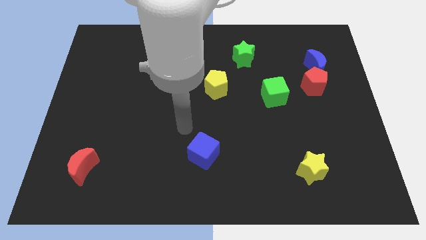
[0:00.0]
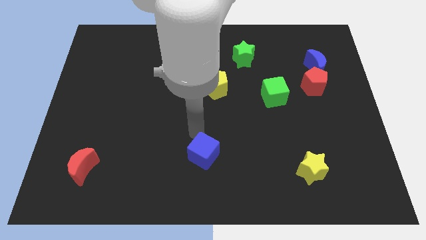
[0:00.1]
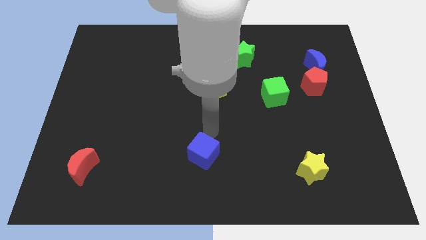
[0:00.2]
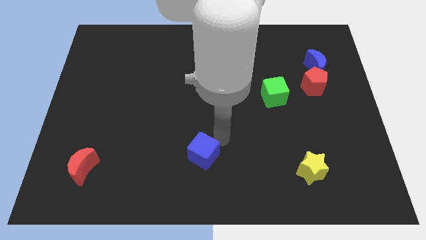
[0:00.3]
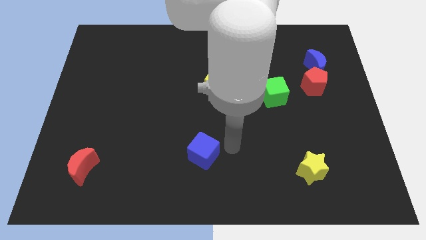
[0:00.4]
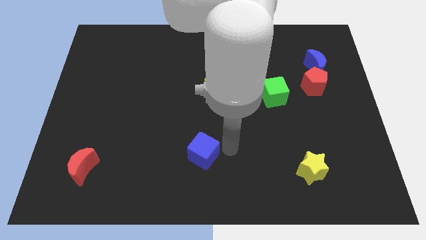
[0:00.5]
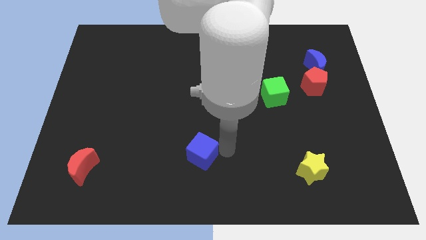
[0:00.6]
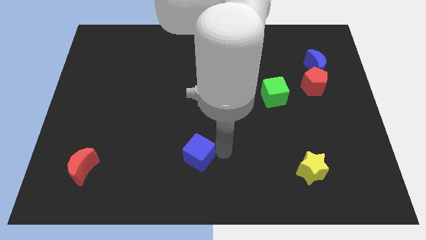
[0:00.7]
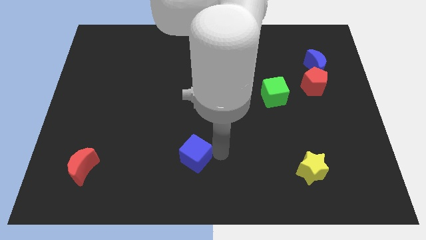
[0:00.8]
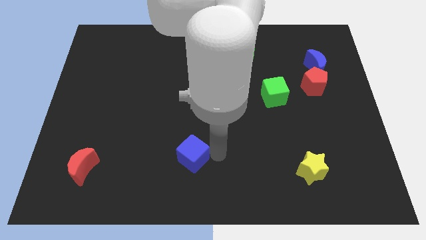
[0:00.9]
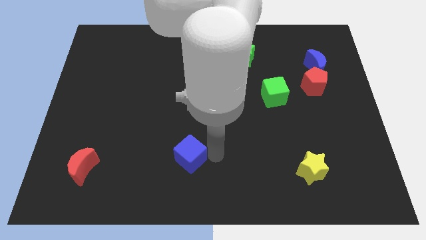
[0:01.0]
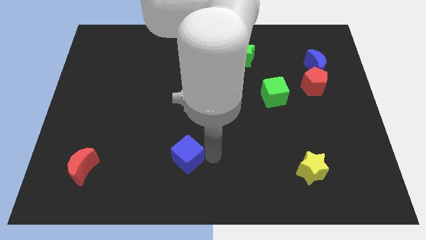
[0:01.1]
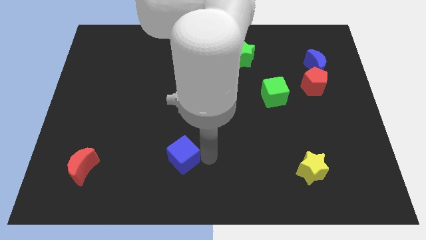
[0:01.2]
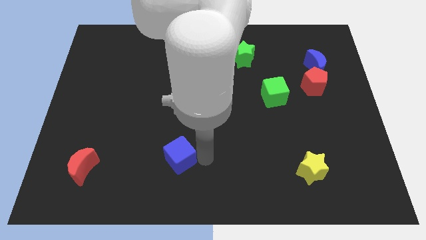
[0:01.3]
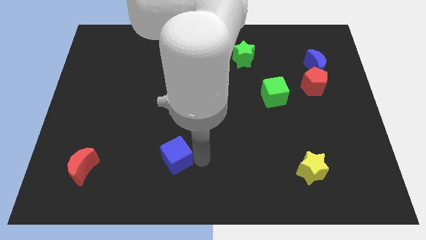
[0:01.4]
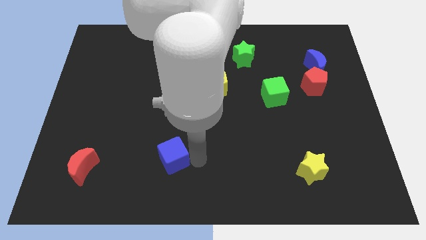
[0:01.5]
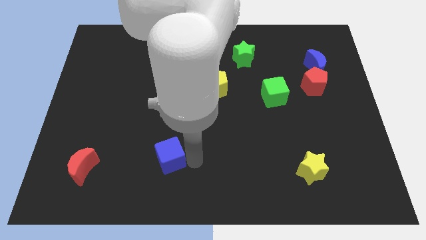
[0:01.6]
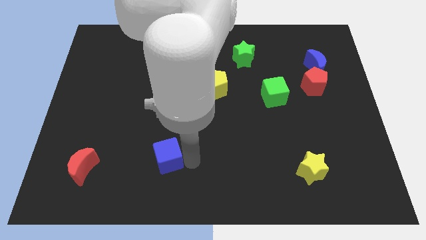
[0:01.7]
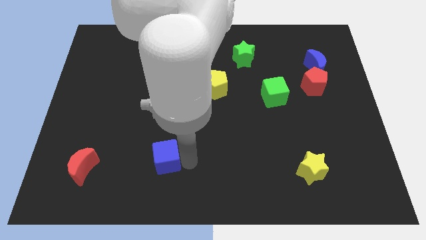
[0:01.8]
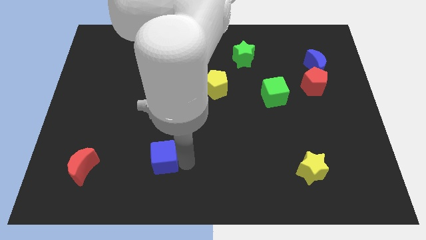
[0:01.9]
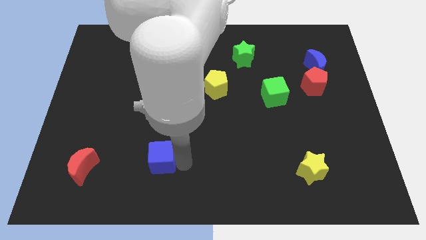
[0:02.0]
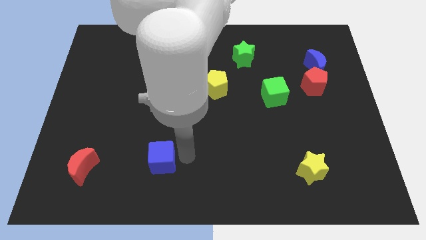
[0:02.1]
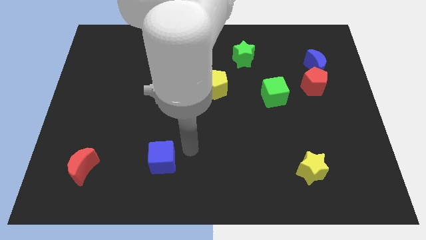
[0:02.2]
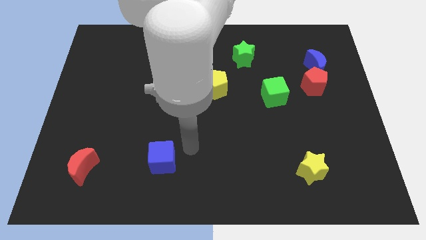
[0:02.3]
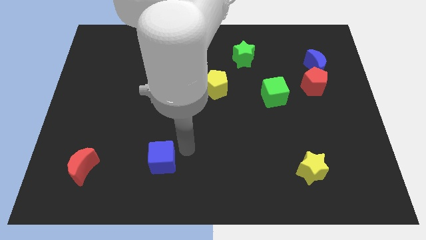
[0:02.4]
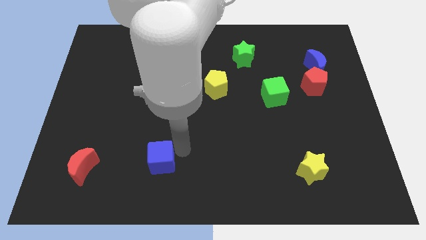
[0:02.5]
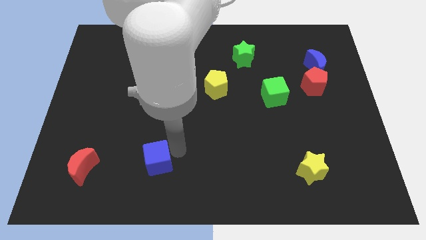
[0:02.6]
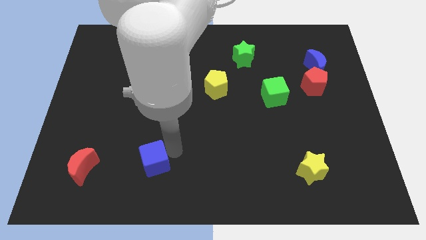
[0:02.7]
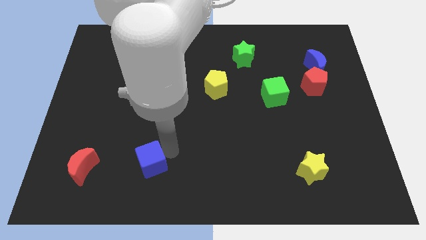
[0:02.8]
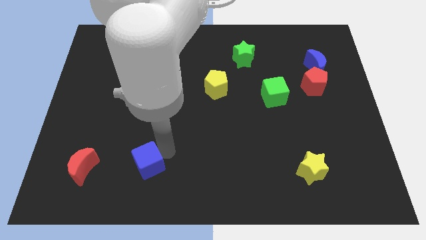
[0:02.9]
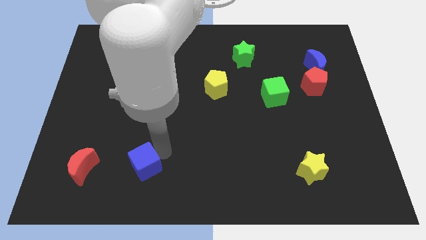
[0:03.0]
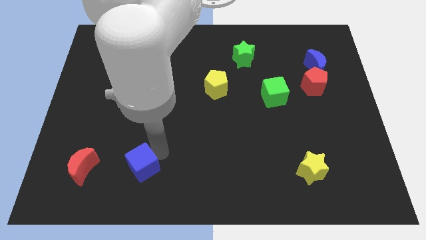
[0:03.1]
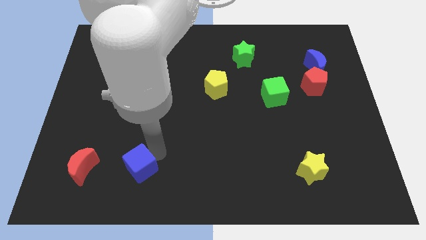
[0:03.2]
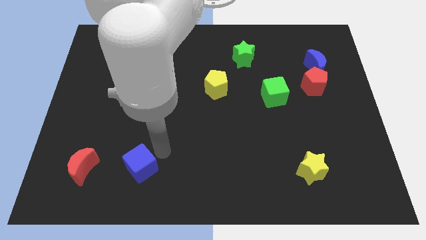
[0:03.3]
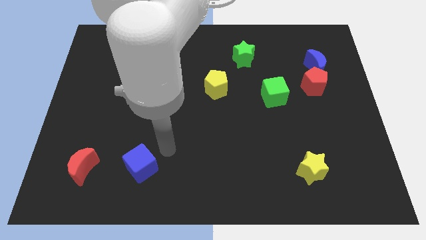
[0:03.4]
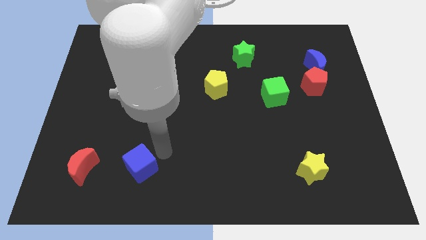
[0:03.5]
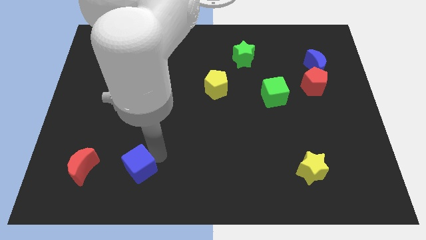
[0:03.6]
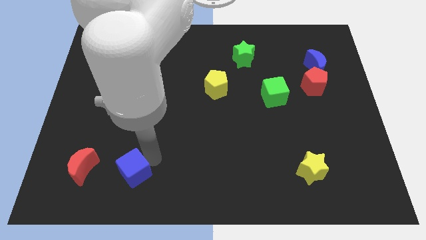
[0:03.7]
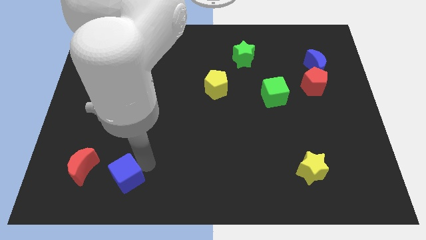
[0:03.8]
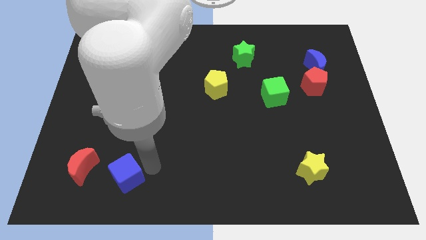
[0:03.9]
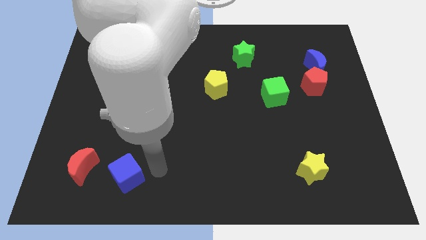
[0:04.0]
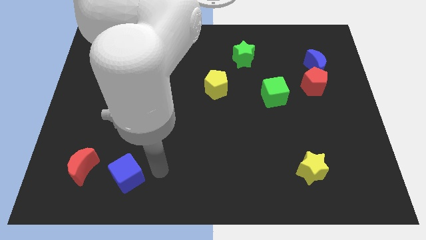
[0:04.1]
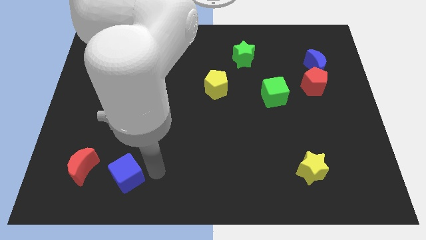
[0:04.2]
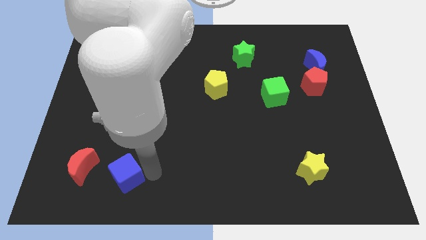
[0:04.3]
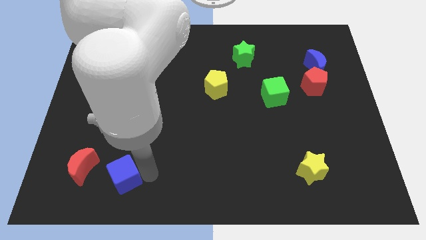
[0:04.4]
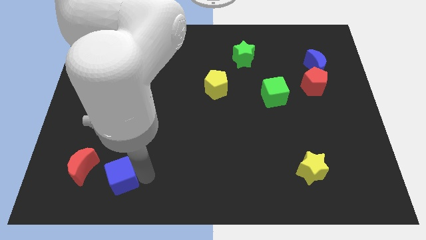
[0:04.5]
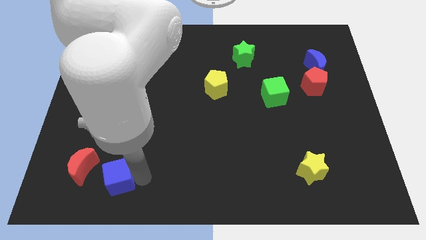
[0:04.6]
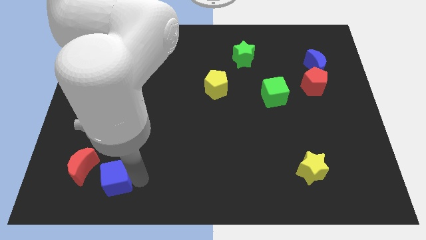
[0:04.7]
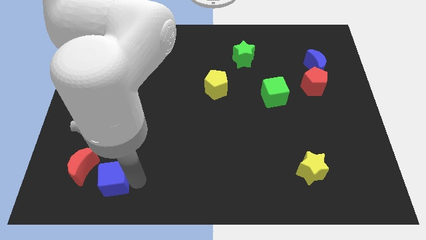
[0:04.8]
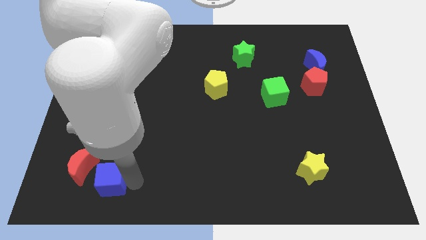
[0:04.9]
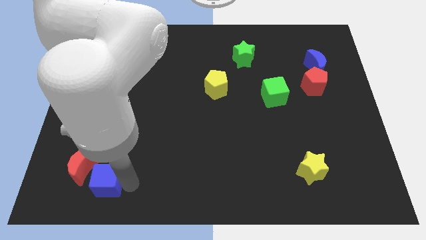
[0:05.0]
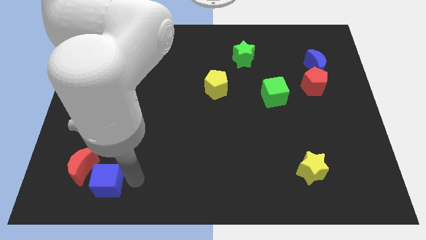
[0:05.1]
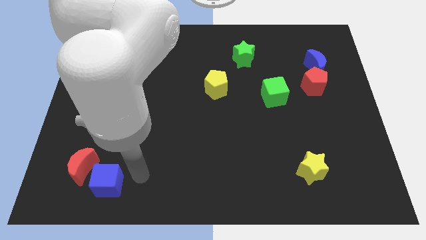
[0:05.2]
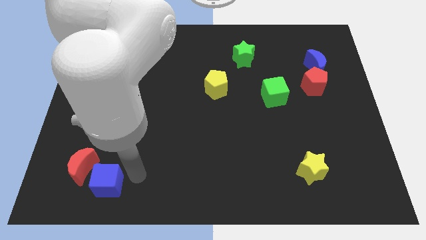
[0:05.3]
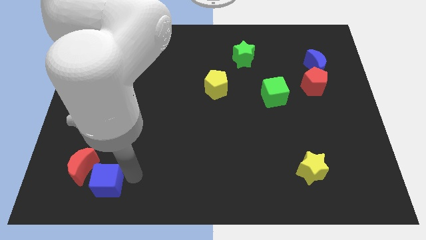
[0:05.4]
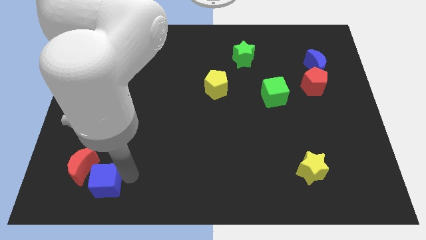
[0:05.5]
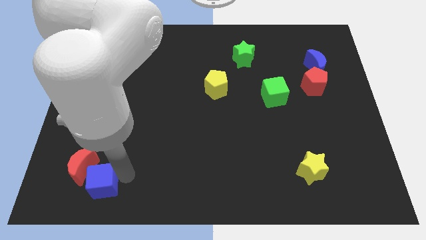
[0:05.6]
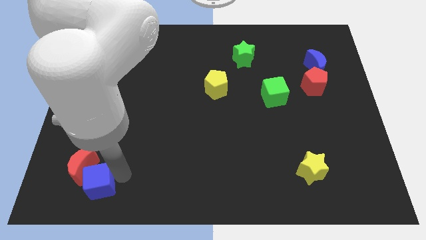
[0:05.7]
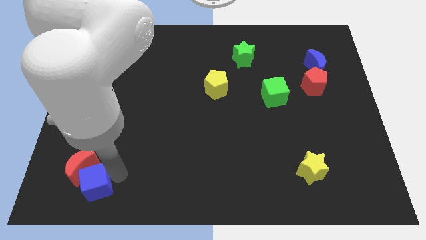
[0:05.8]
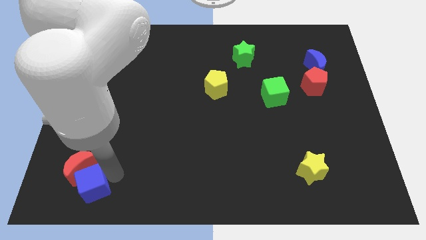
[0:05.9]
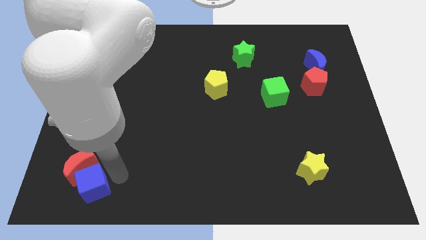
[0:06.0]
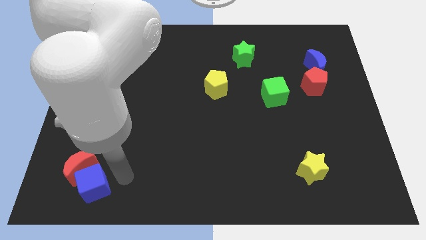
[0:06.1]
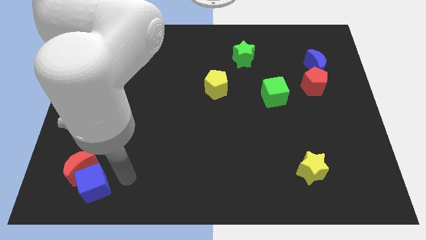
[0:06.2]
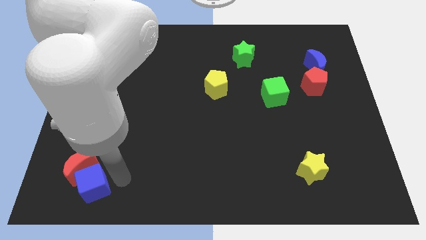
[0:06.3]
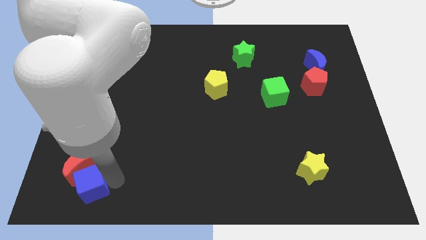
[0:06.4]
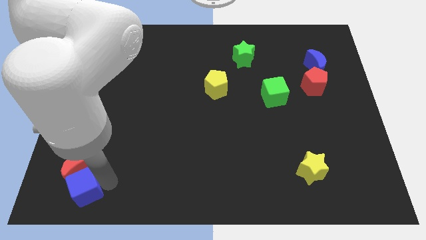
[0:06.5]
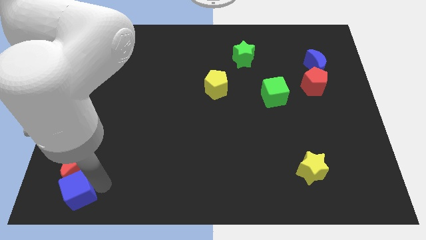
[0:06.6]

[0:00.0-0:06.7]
slide the blue cube to the bottom left corner

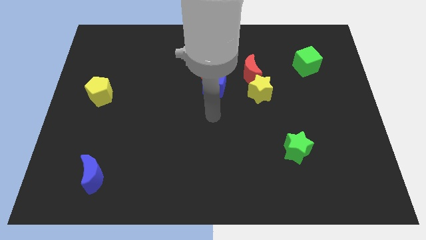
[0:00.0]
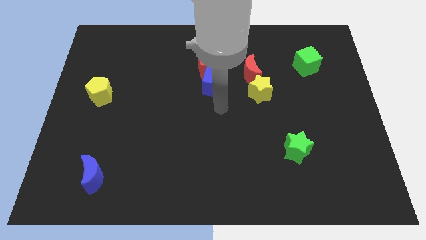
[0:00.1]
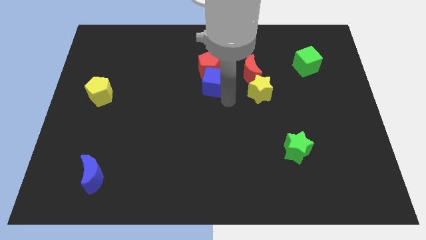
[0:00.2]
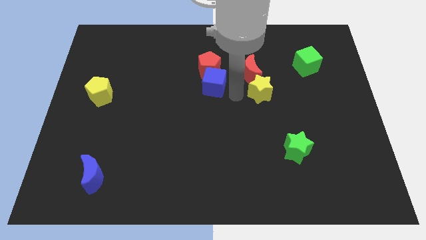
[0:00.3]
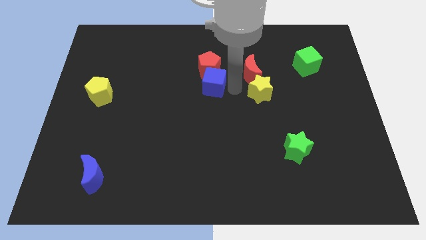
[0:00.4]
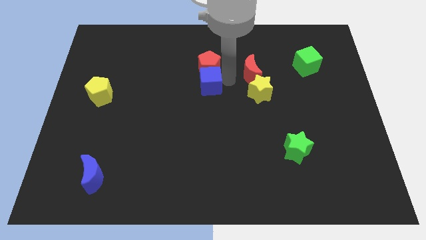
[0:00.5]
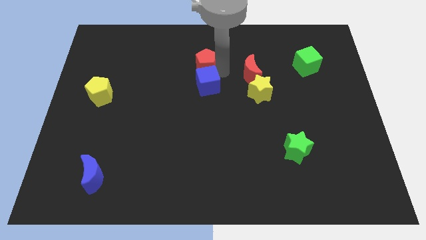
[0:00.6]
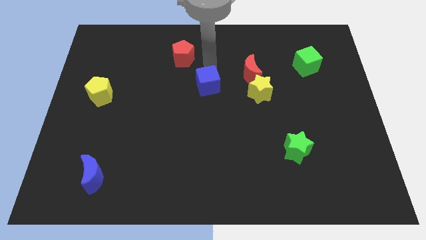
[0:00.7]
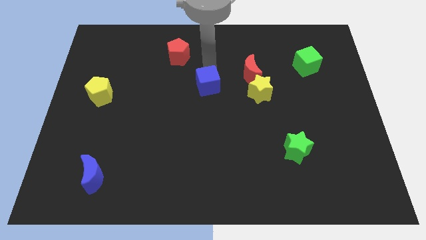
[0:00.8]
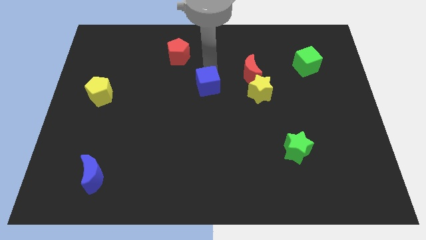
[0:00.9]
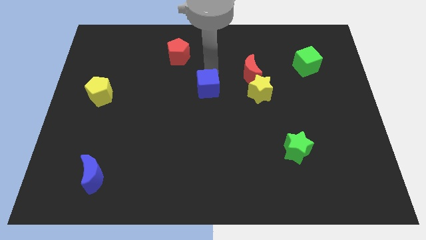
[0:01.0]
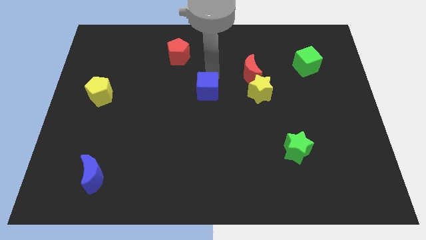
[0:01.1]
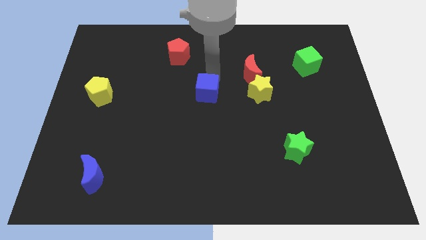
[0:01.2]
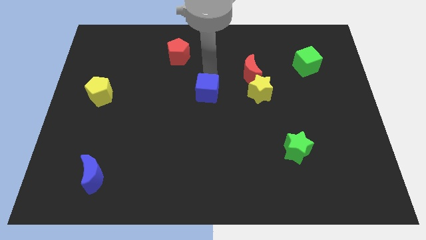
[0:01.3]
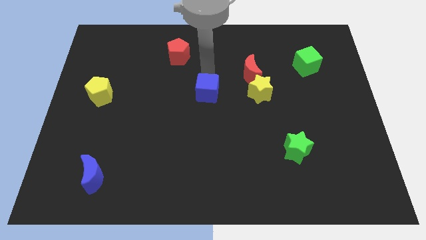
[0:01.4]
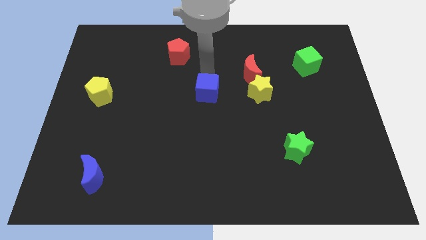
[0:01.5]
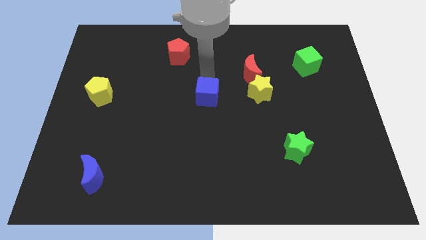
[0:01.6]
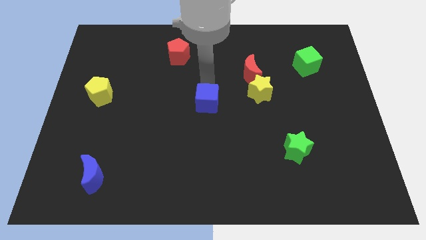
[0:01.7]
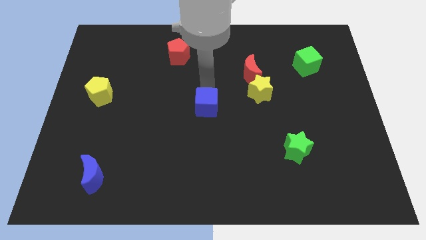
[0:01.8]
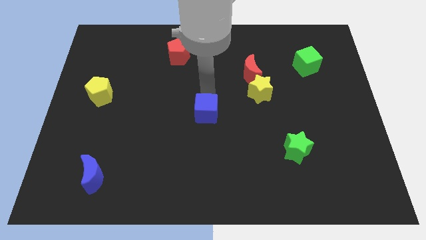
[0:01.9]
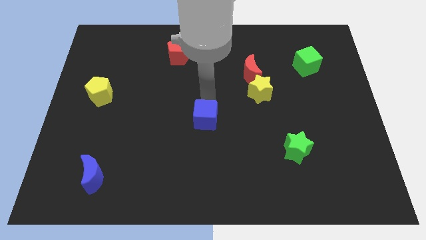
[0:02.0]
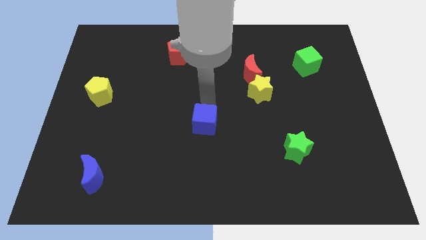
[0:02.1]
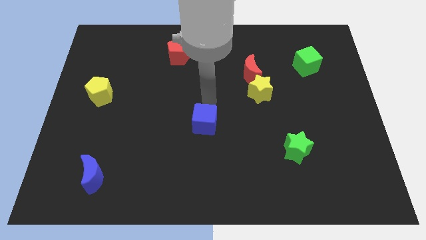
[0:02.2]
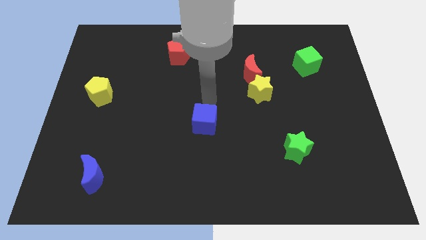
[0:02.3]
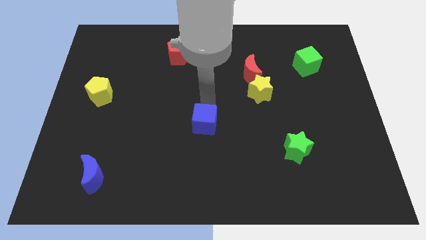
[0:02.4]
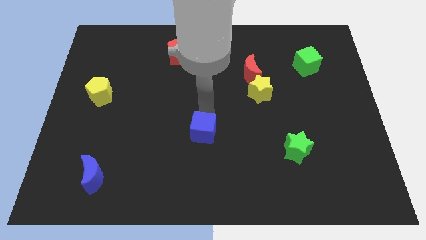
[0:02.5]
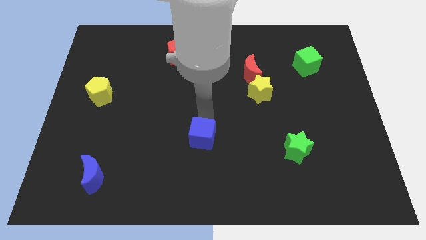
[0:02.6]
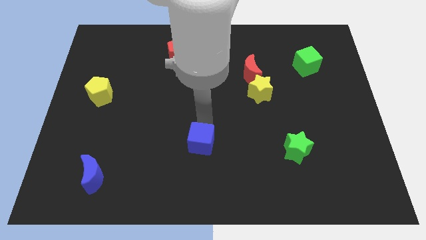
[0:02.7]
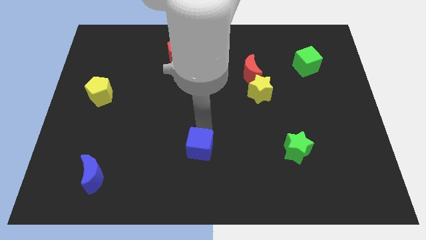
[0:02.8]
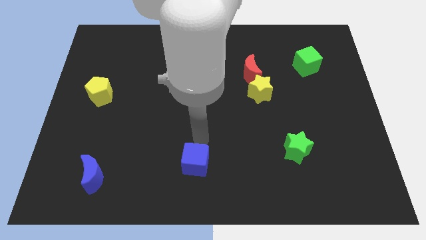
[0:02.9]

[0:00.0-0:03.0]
slide the blue cube to the bottom side
